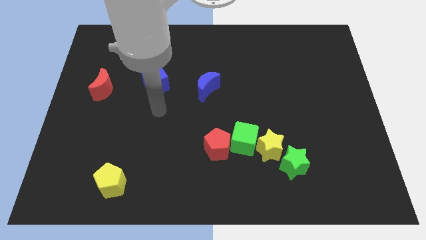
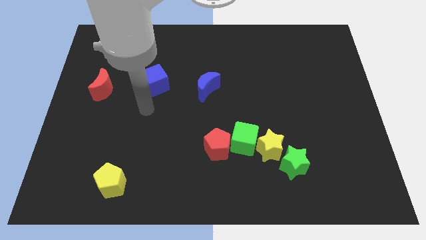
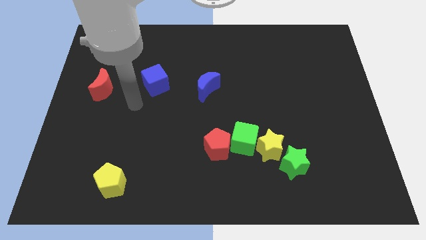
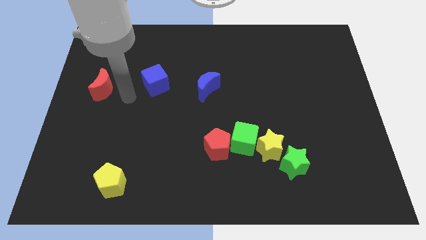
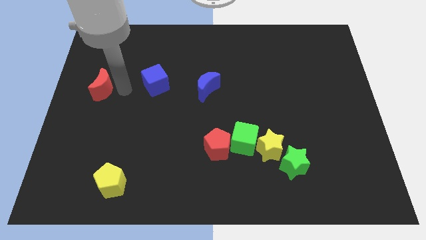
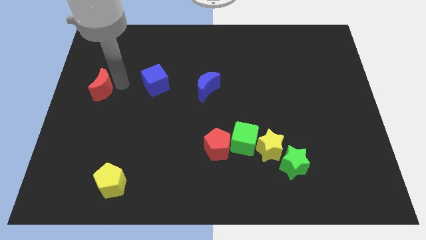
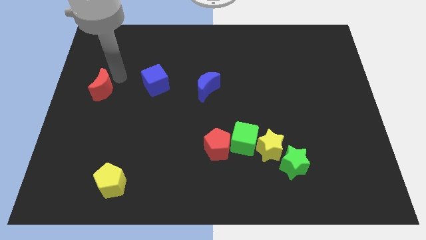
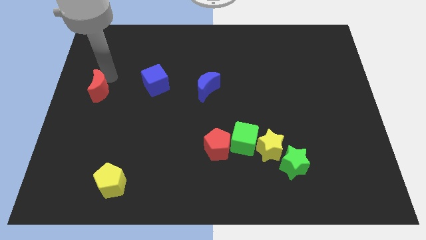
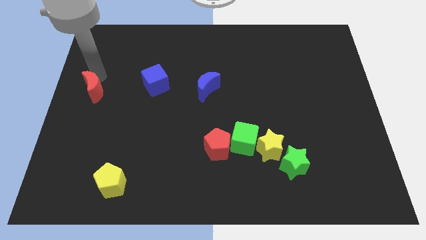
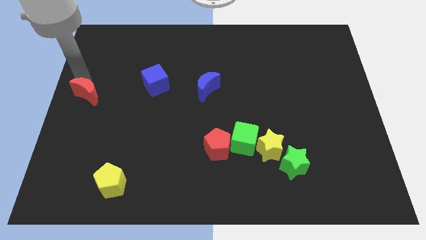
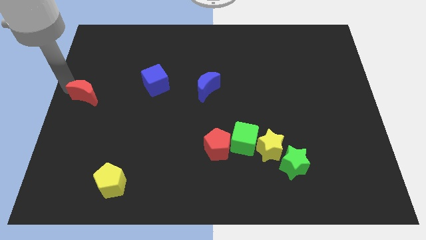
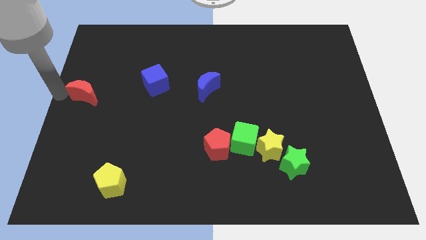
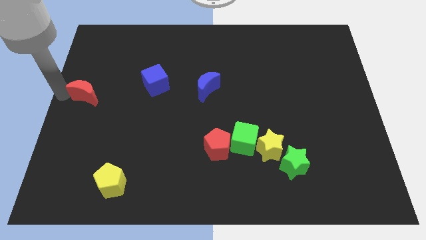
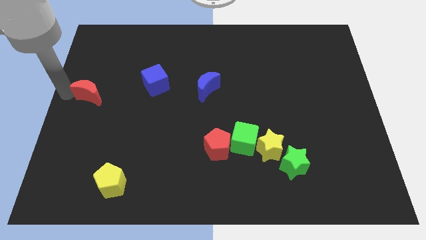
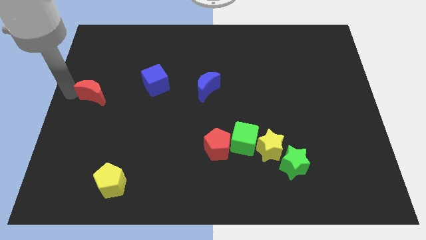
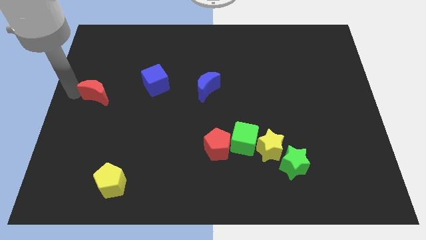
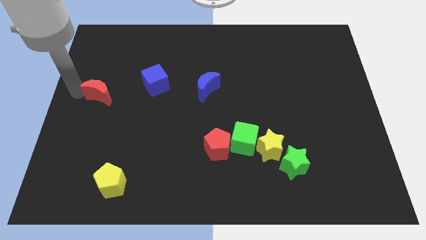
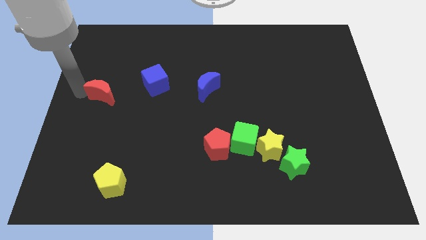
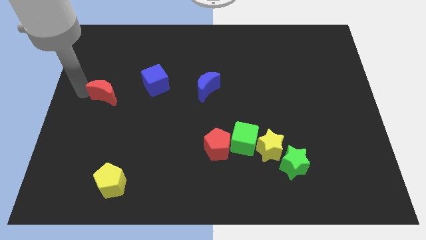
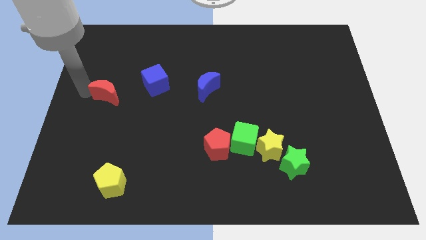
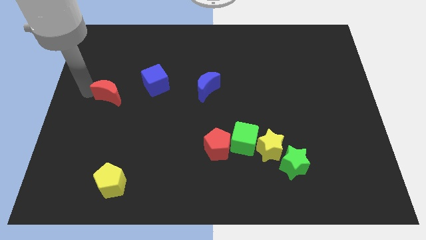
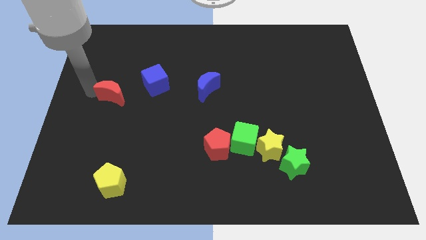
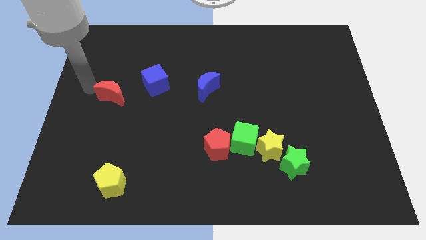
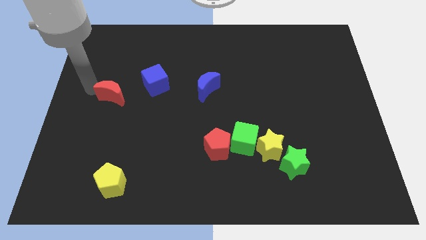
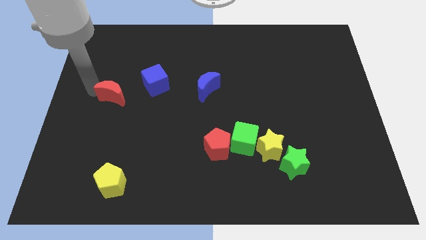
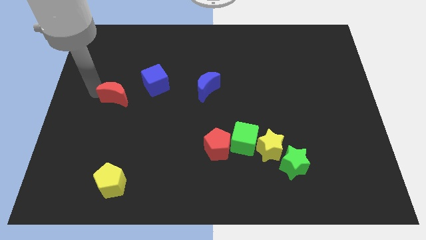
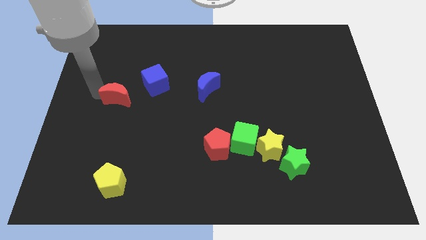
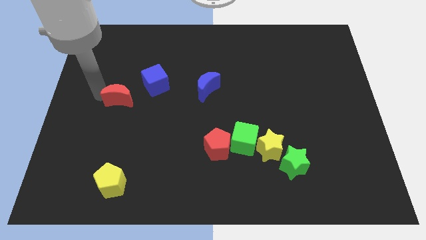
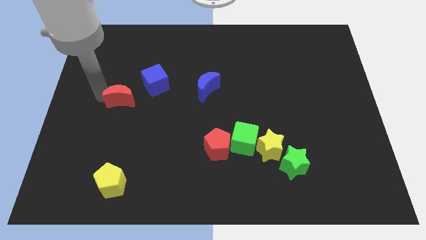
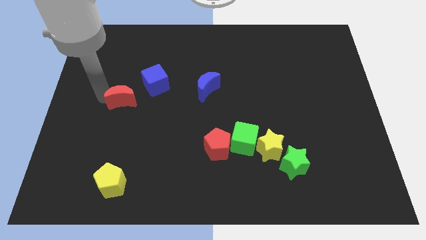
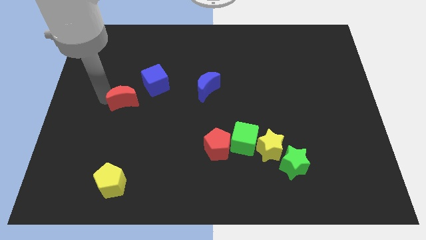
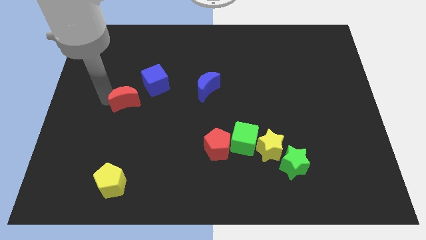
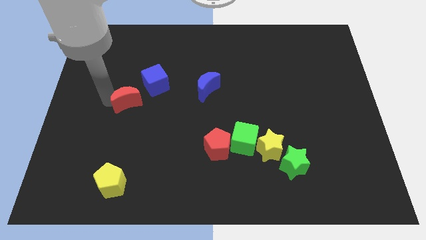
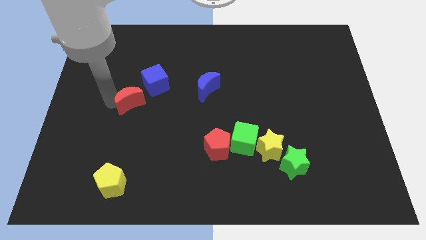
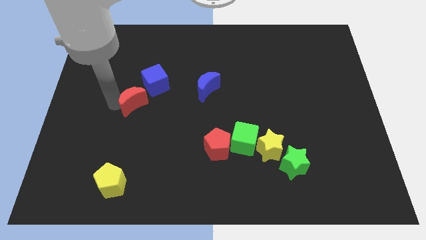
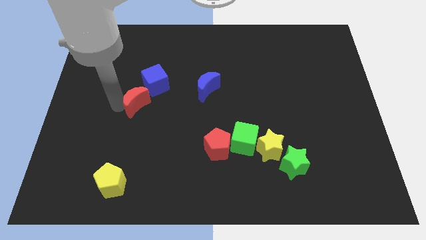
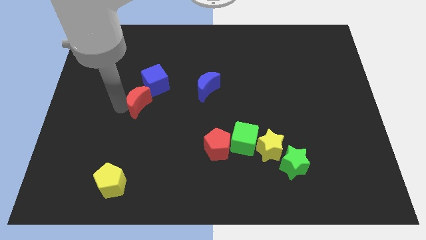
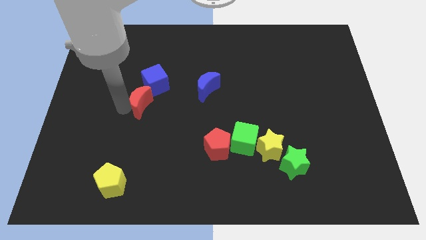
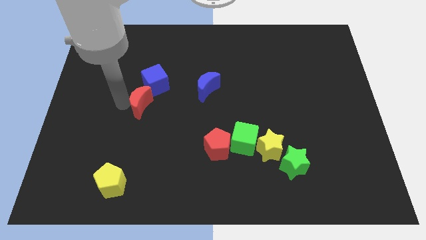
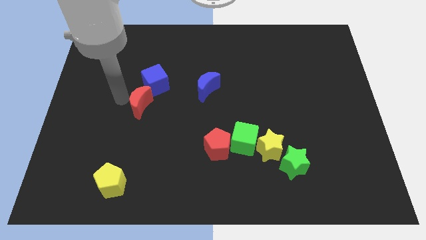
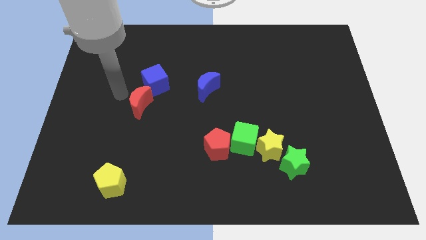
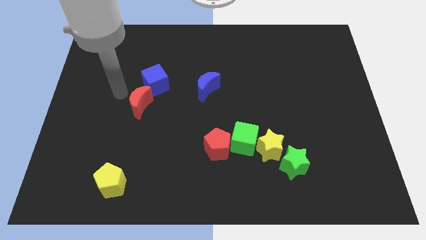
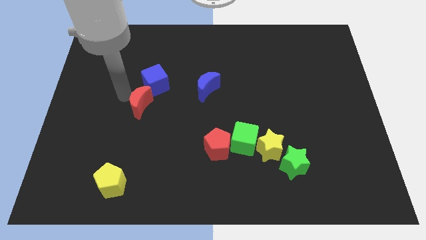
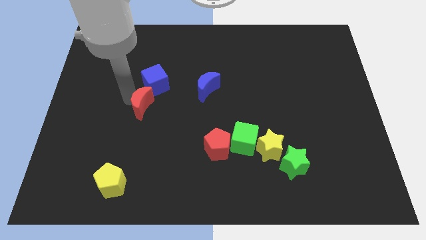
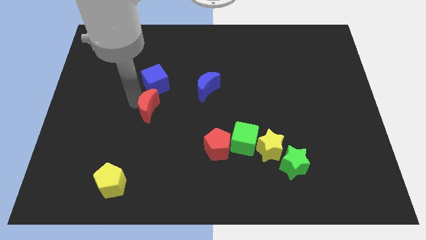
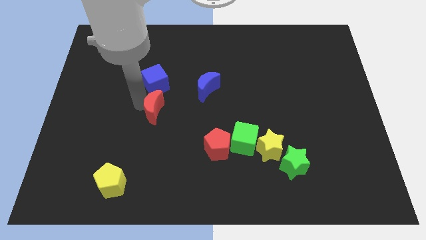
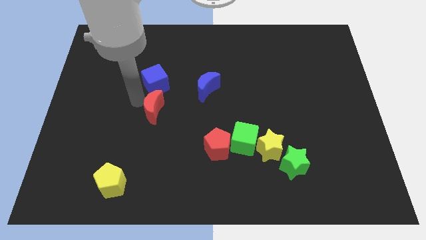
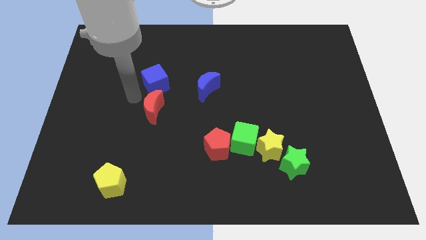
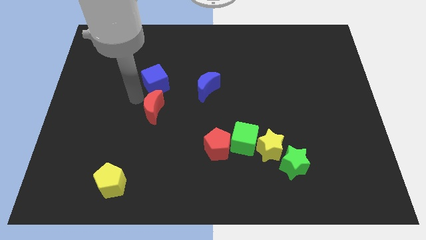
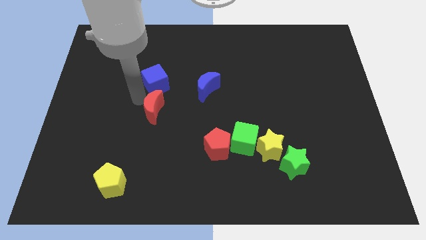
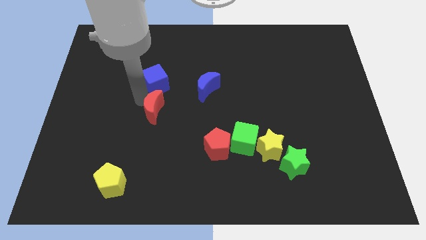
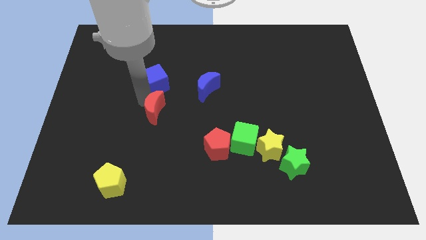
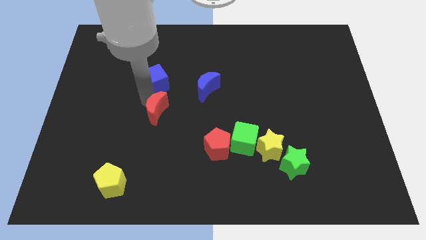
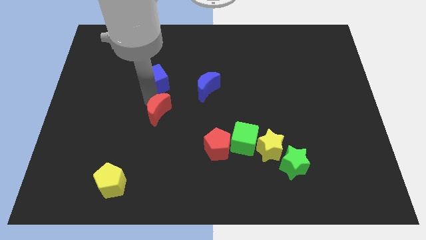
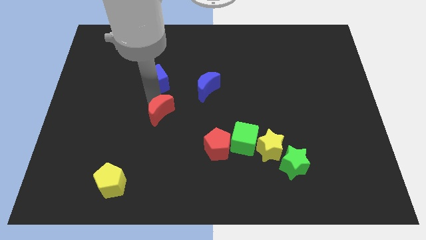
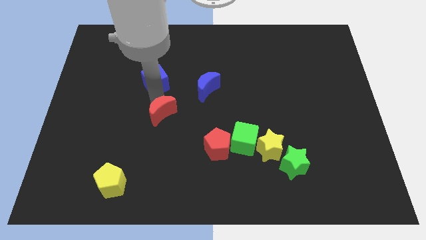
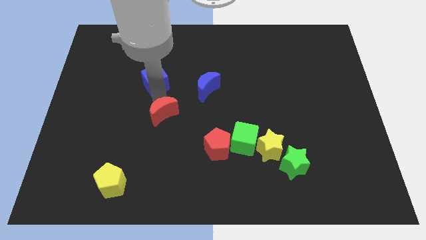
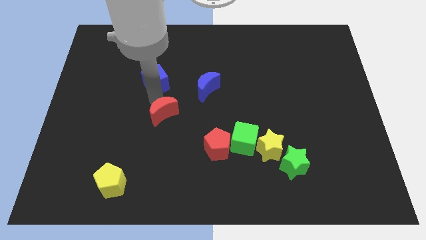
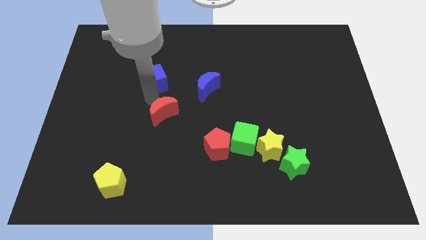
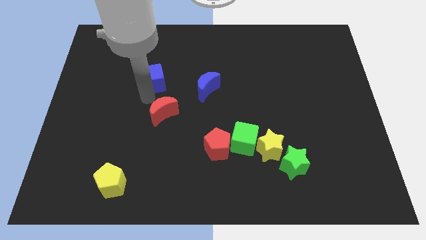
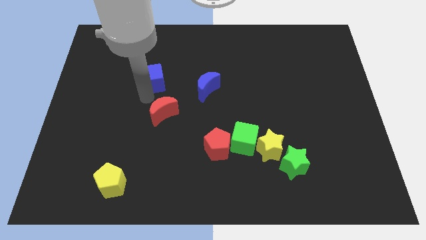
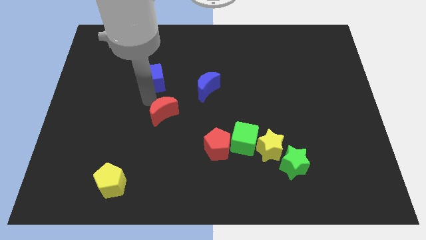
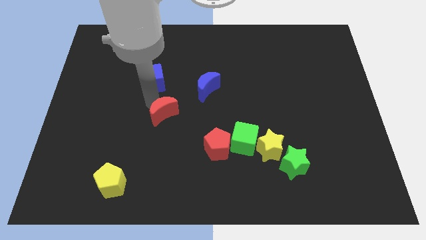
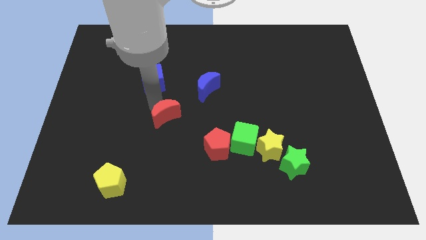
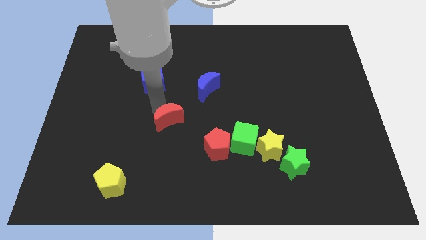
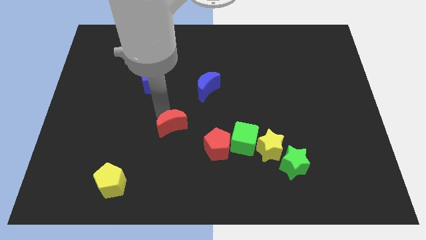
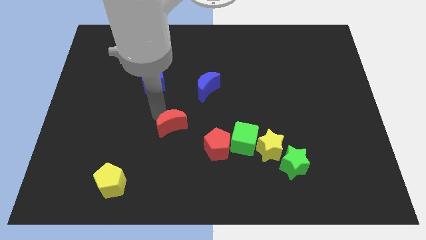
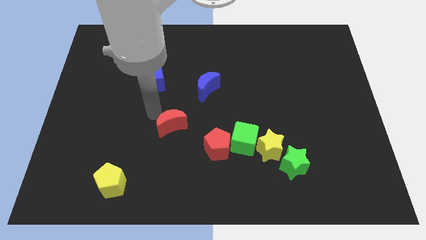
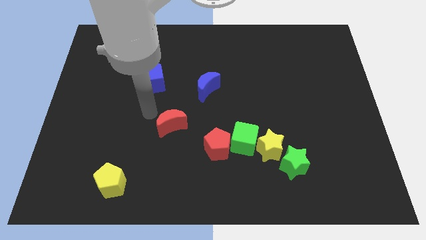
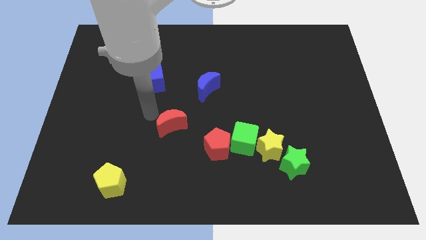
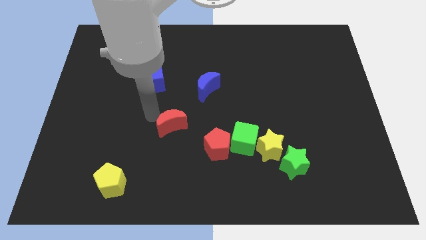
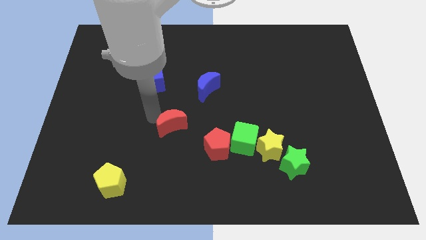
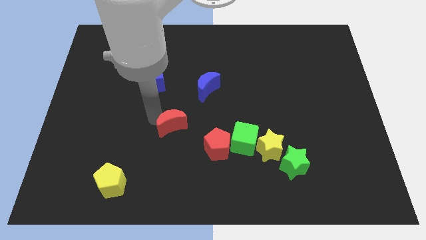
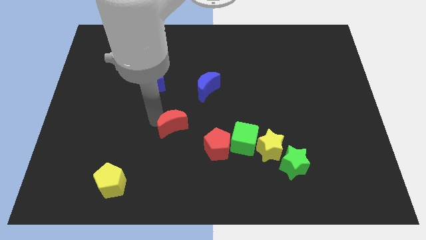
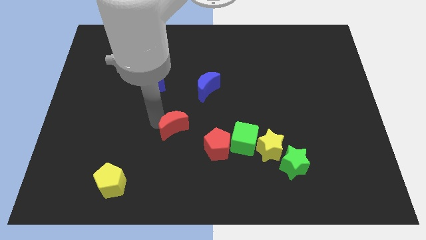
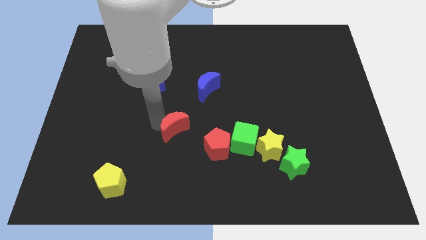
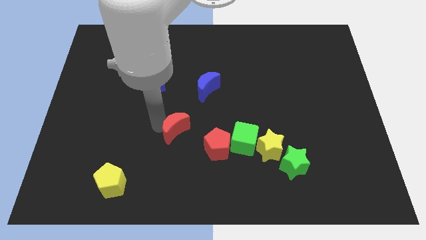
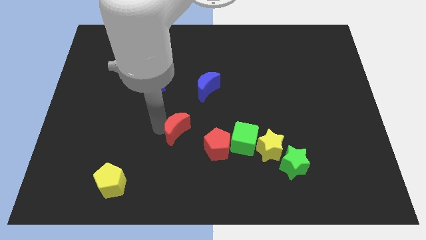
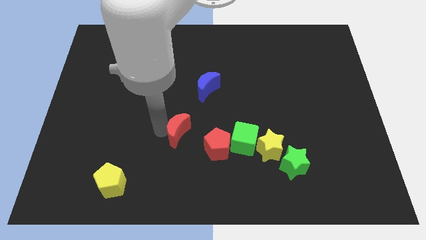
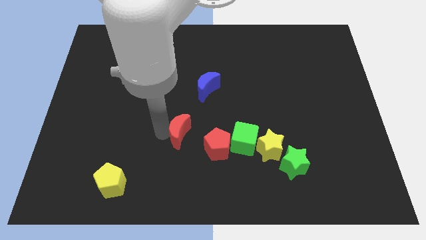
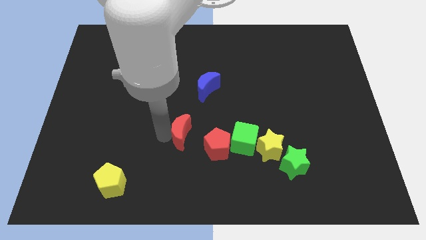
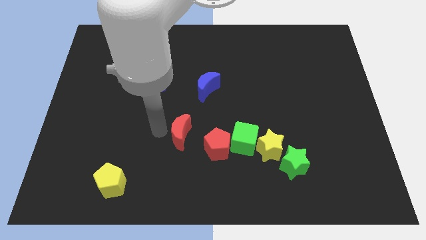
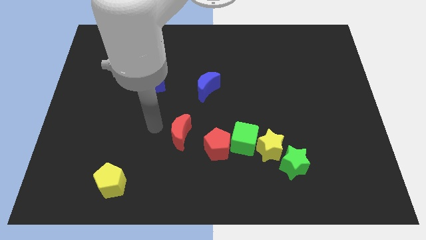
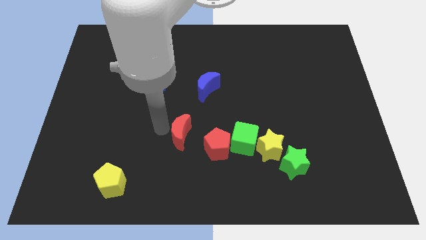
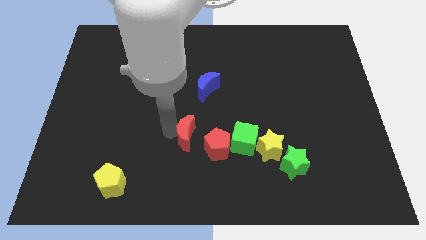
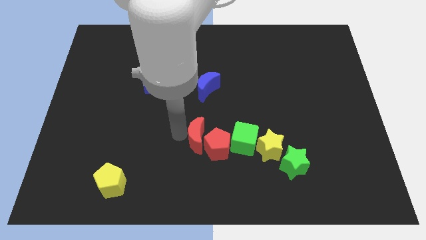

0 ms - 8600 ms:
push the red moon to the red pentagon
